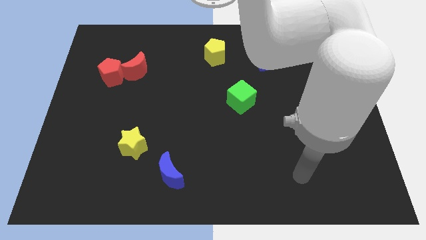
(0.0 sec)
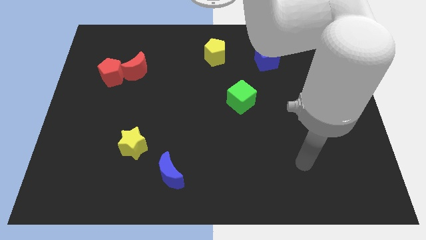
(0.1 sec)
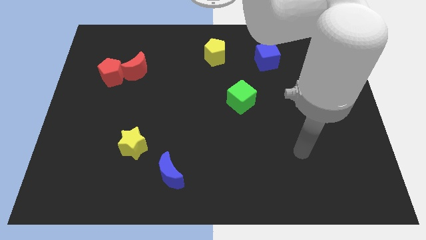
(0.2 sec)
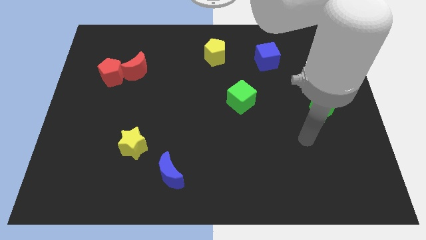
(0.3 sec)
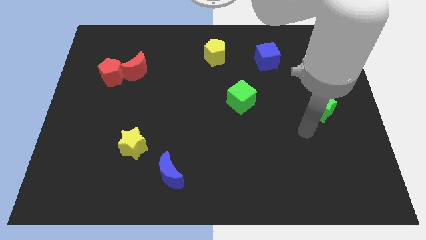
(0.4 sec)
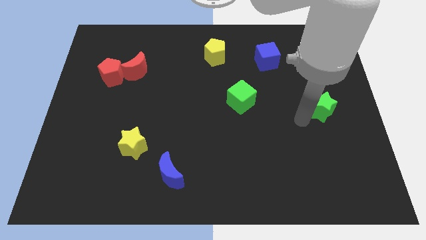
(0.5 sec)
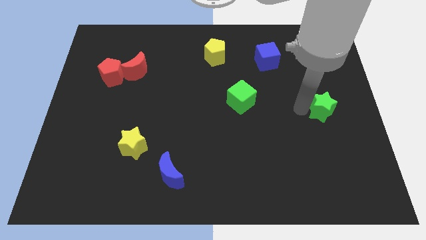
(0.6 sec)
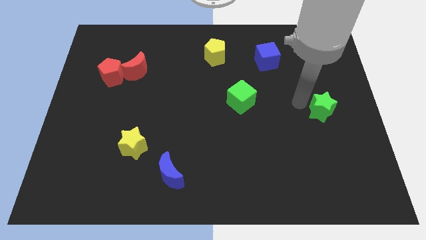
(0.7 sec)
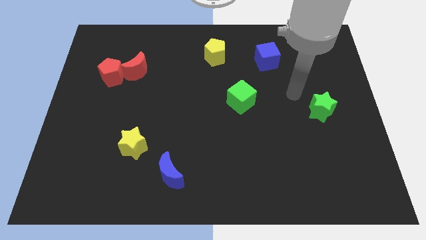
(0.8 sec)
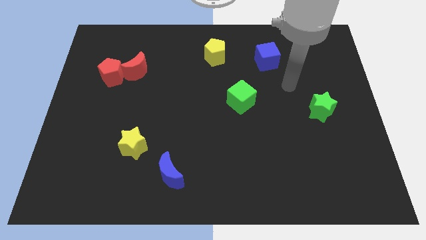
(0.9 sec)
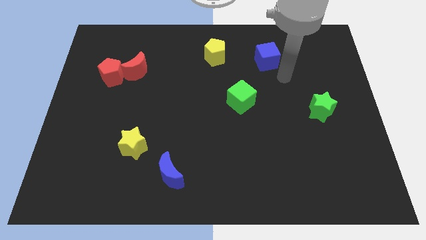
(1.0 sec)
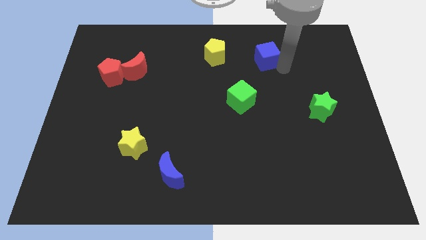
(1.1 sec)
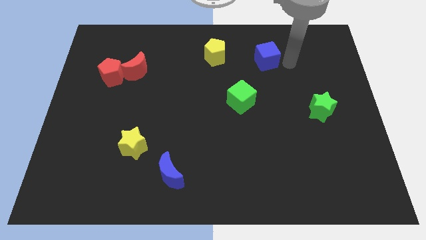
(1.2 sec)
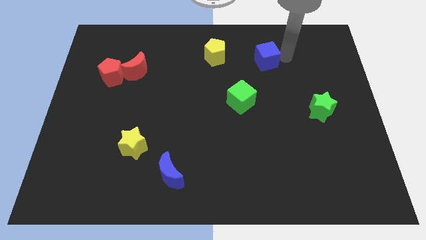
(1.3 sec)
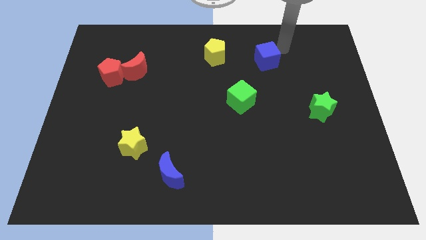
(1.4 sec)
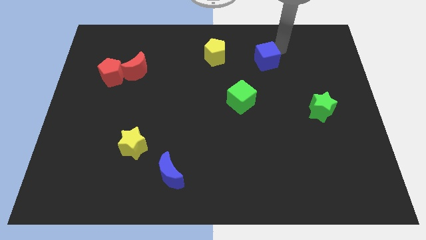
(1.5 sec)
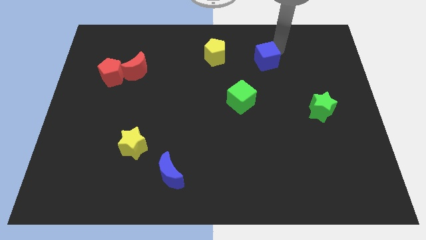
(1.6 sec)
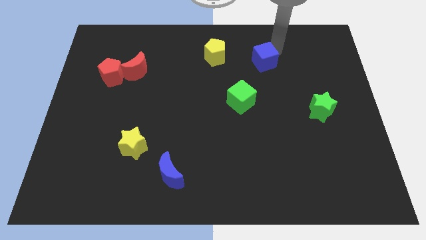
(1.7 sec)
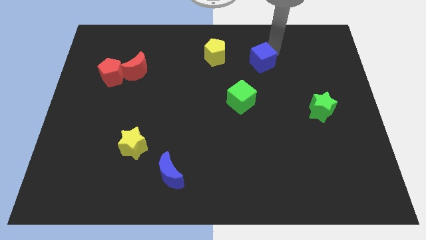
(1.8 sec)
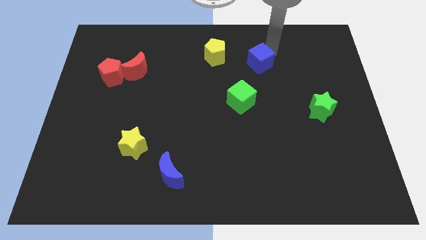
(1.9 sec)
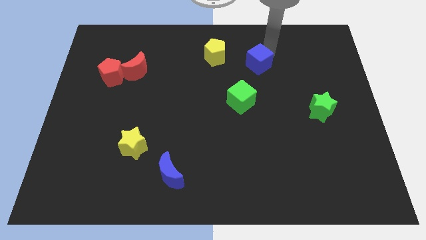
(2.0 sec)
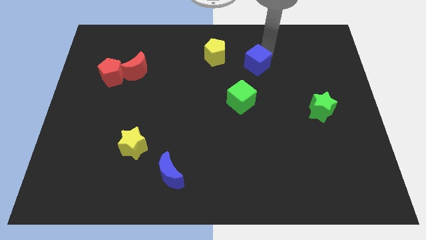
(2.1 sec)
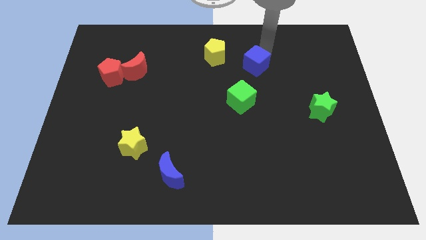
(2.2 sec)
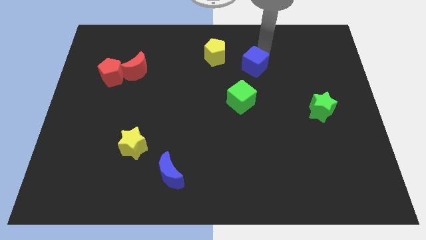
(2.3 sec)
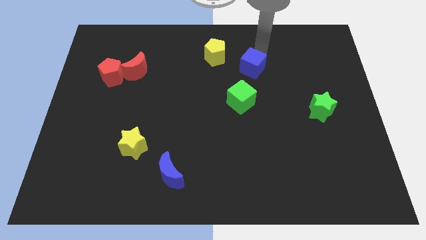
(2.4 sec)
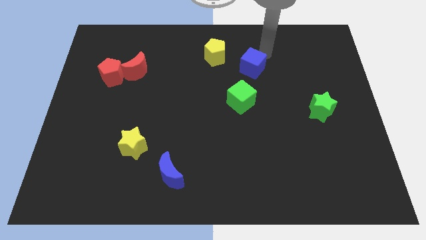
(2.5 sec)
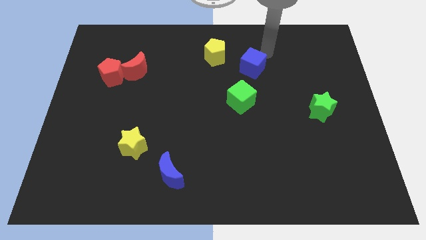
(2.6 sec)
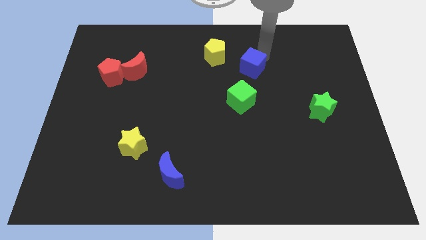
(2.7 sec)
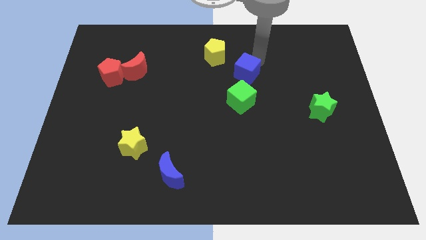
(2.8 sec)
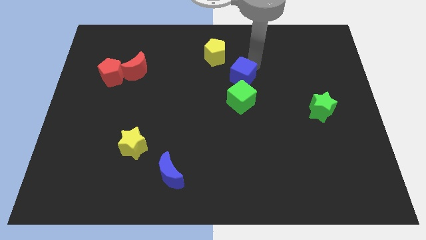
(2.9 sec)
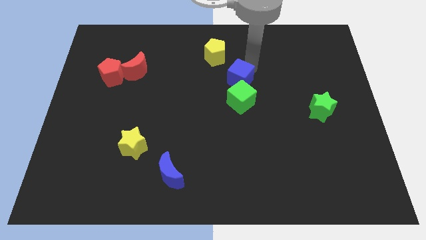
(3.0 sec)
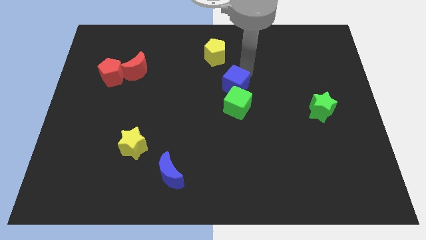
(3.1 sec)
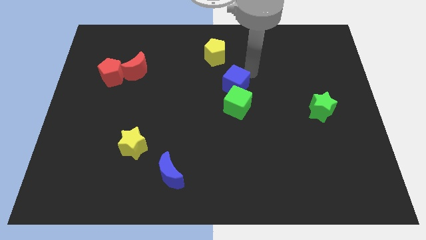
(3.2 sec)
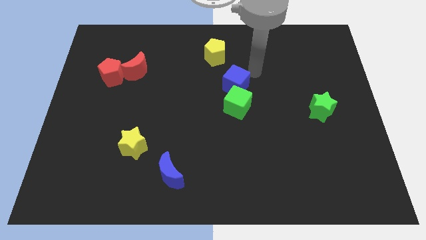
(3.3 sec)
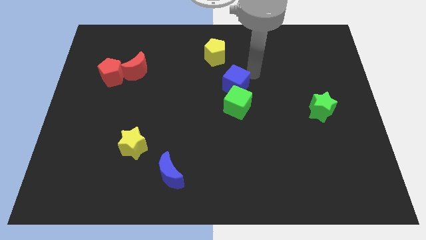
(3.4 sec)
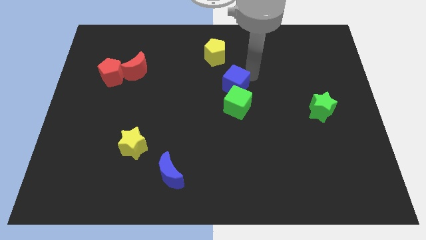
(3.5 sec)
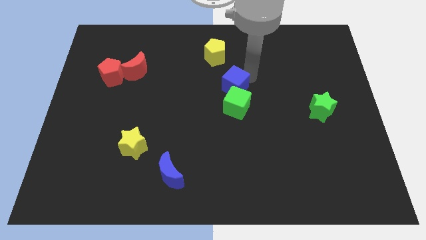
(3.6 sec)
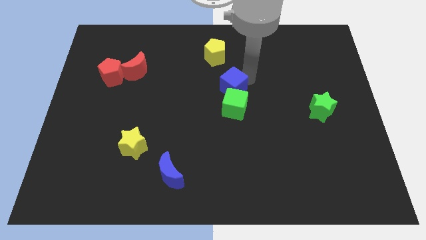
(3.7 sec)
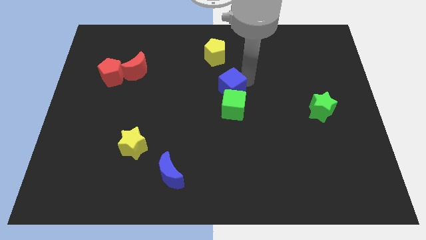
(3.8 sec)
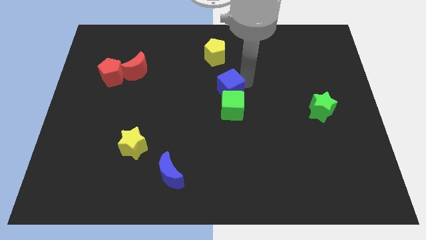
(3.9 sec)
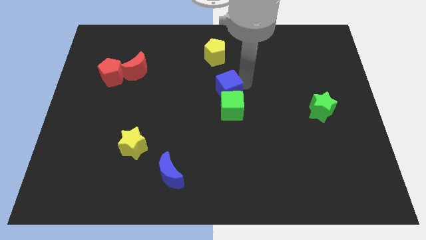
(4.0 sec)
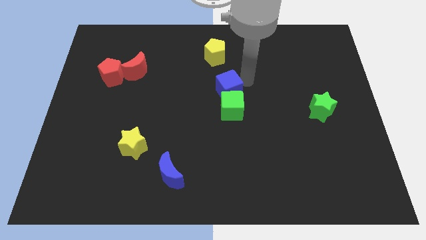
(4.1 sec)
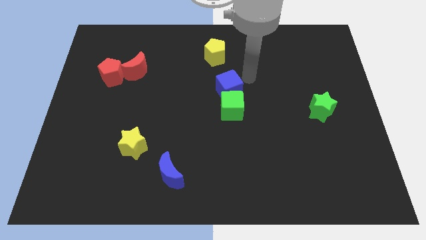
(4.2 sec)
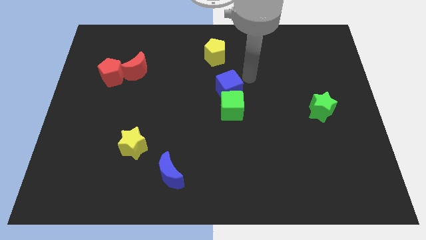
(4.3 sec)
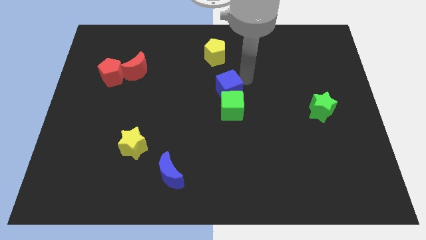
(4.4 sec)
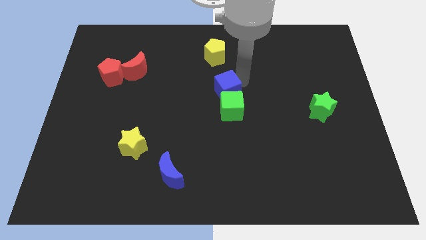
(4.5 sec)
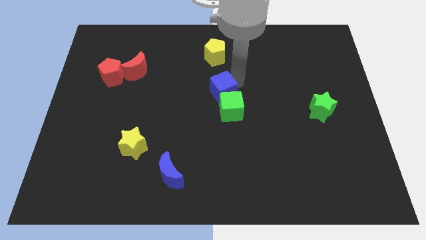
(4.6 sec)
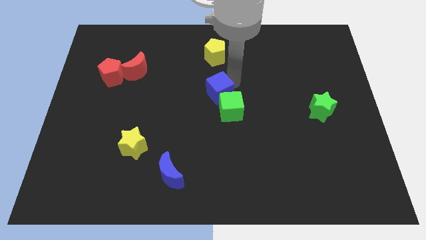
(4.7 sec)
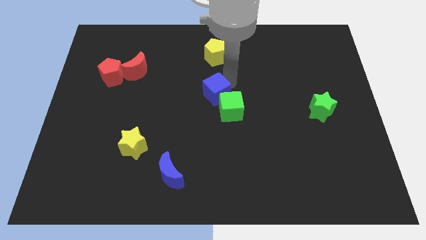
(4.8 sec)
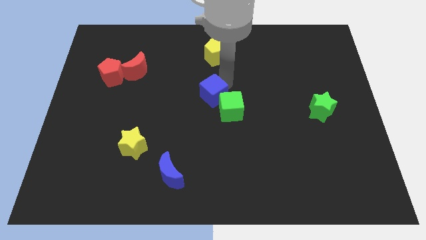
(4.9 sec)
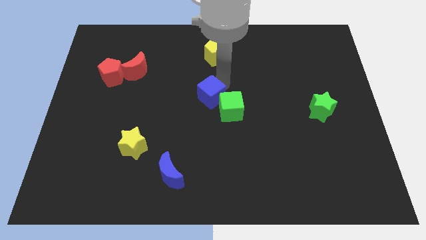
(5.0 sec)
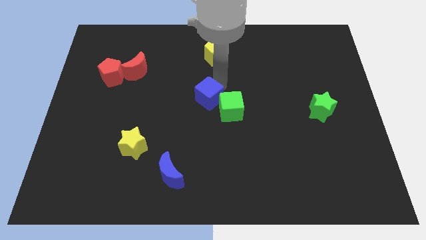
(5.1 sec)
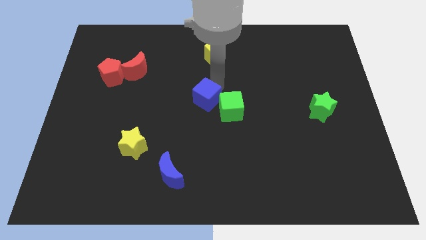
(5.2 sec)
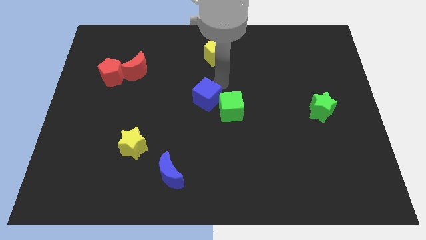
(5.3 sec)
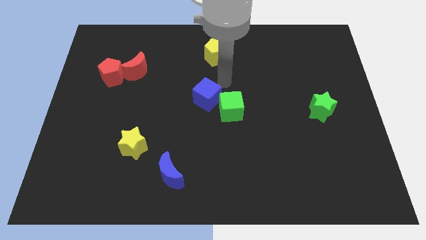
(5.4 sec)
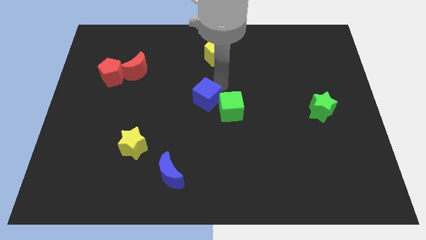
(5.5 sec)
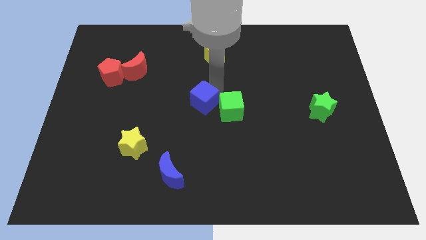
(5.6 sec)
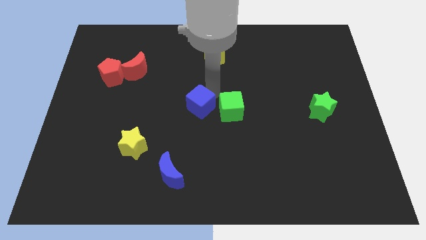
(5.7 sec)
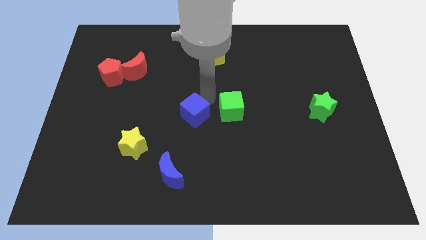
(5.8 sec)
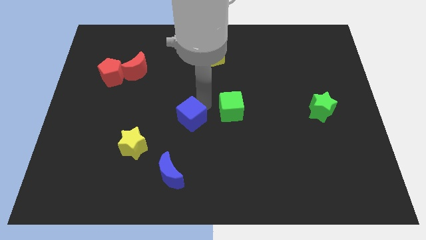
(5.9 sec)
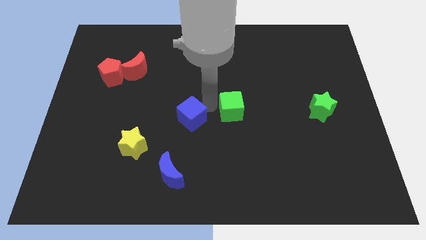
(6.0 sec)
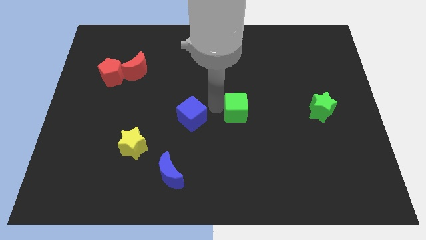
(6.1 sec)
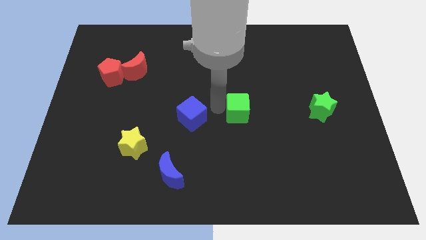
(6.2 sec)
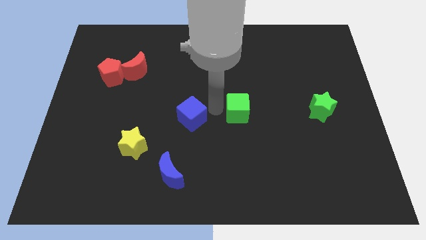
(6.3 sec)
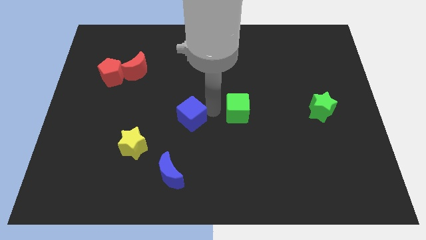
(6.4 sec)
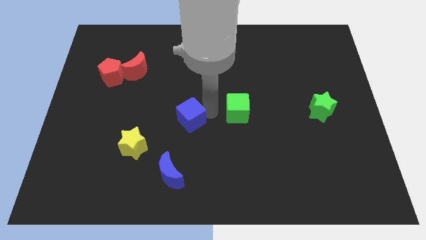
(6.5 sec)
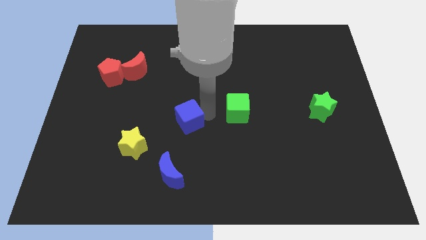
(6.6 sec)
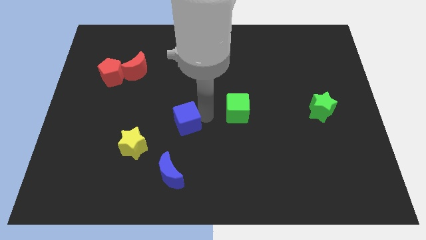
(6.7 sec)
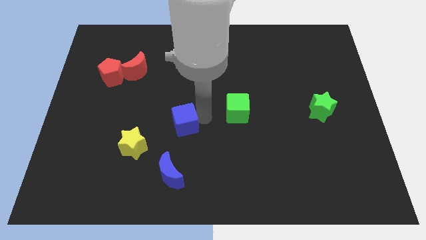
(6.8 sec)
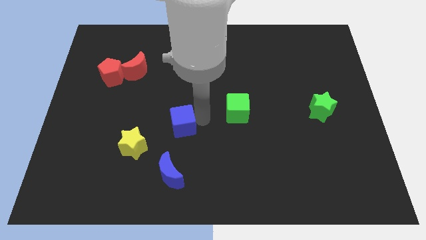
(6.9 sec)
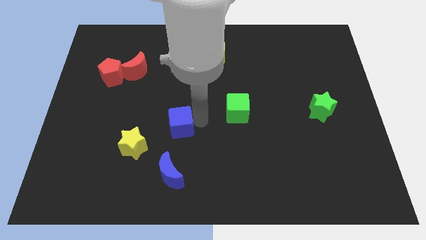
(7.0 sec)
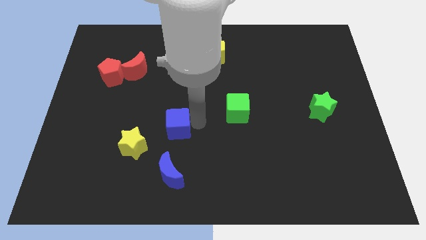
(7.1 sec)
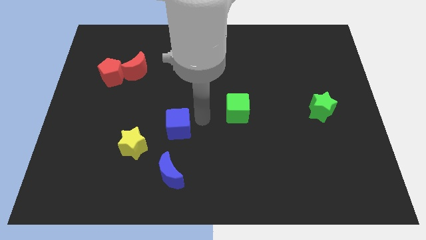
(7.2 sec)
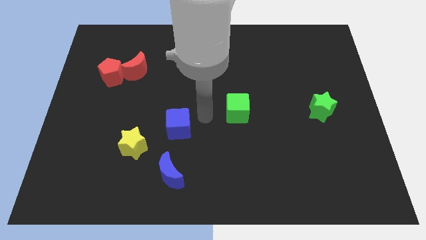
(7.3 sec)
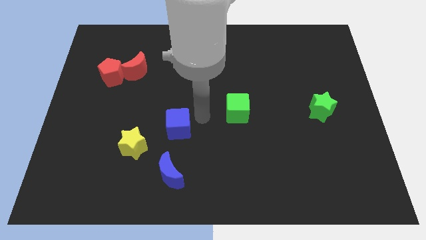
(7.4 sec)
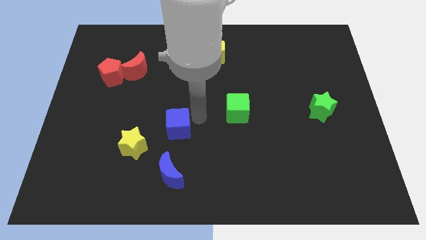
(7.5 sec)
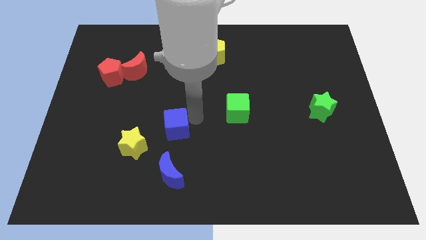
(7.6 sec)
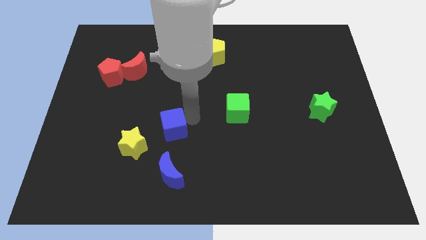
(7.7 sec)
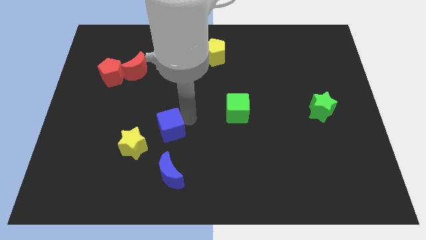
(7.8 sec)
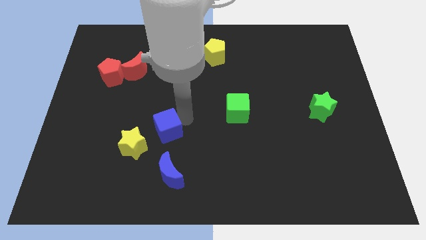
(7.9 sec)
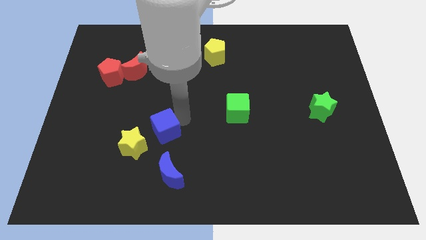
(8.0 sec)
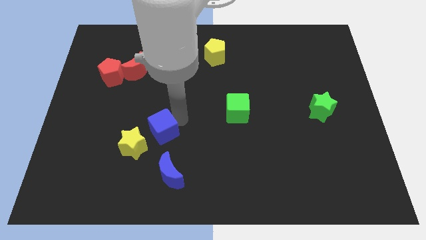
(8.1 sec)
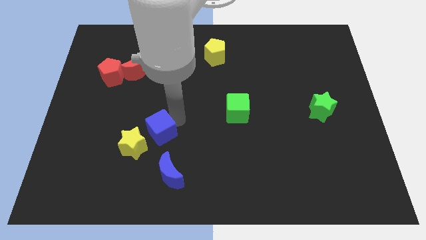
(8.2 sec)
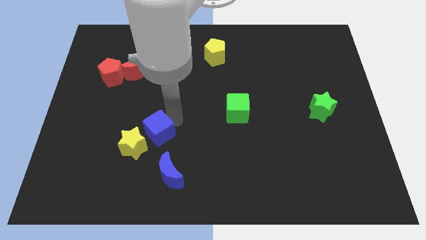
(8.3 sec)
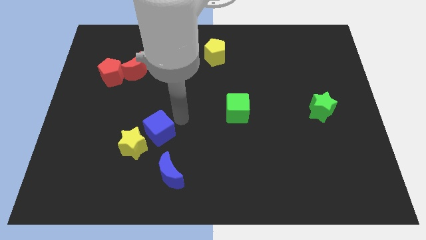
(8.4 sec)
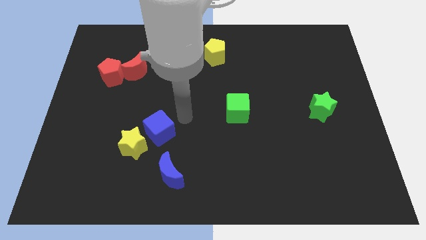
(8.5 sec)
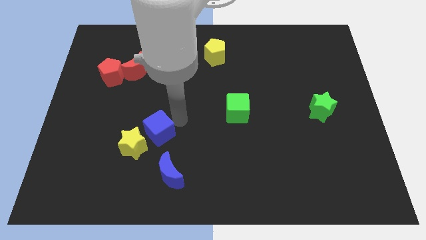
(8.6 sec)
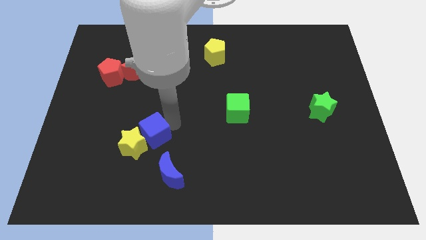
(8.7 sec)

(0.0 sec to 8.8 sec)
push the blue cube to the yellow star
